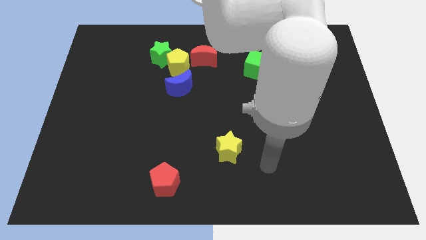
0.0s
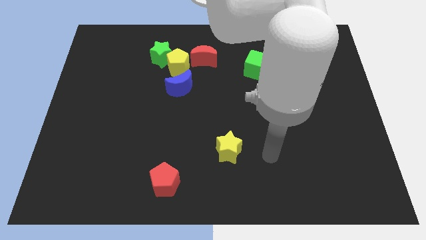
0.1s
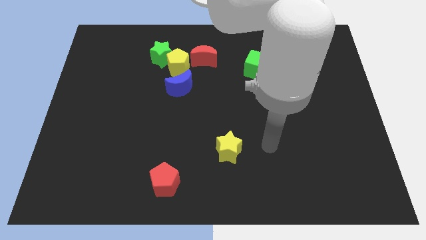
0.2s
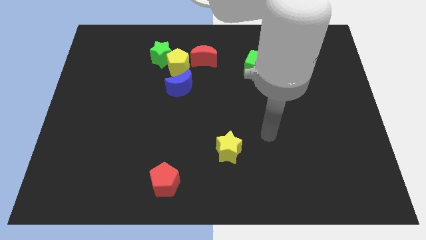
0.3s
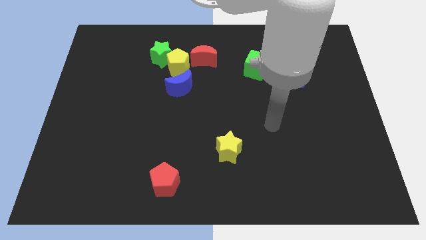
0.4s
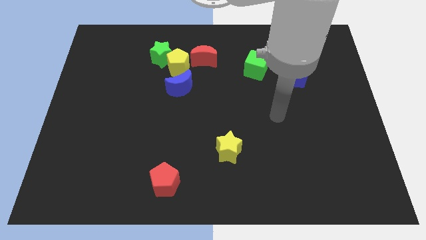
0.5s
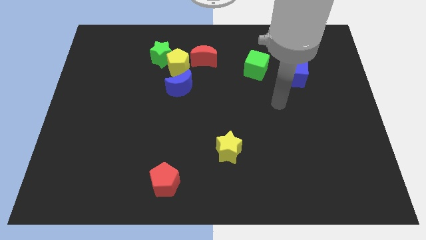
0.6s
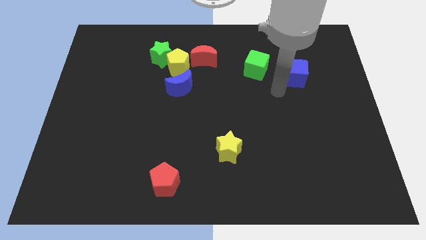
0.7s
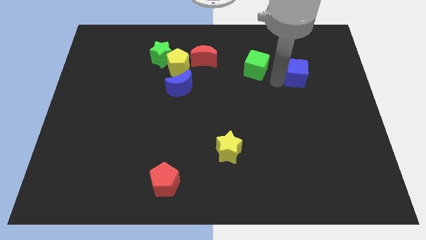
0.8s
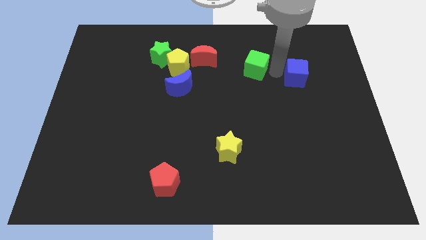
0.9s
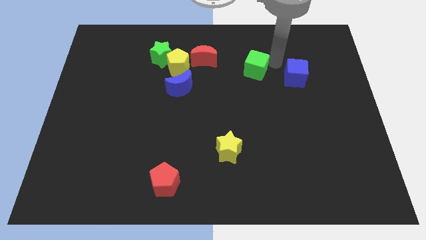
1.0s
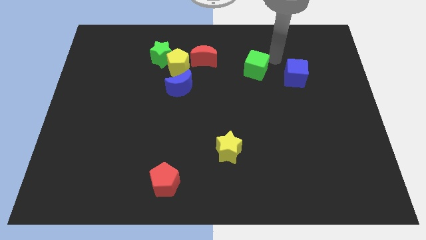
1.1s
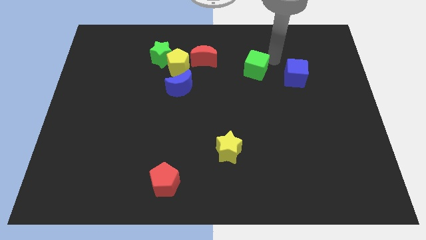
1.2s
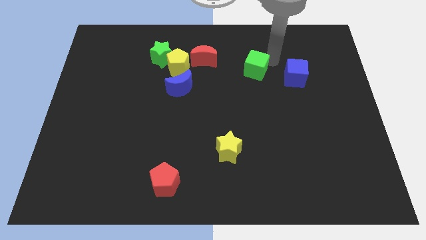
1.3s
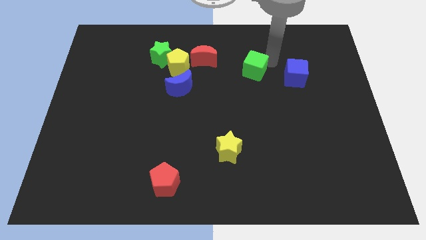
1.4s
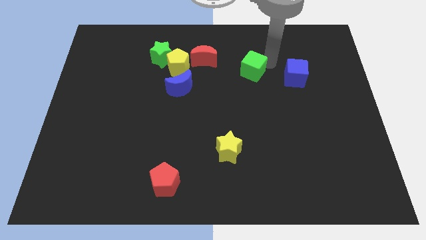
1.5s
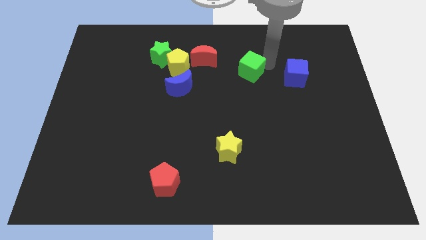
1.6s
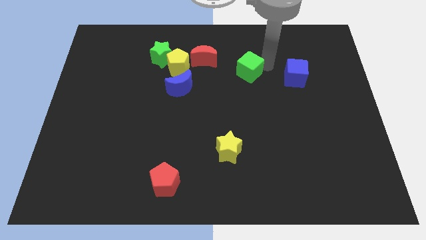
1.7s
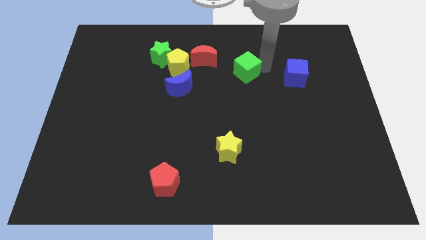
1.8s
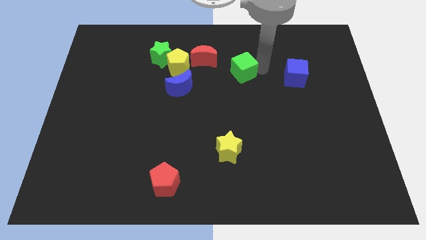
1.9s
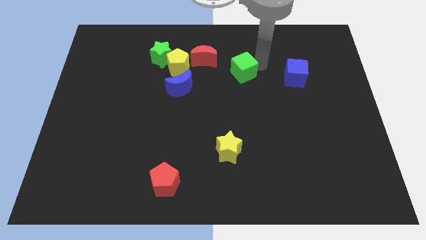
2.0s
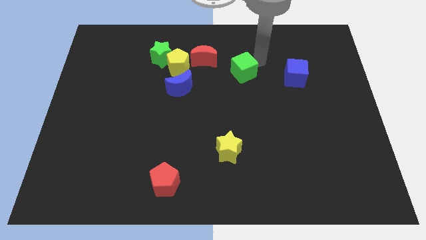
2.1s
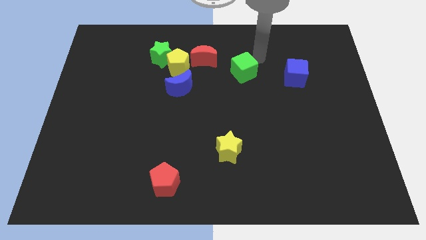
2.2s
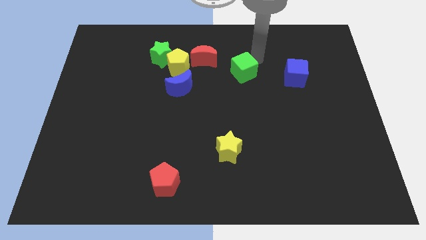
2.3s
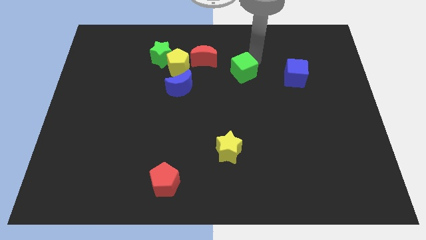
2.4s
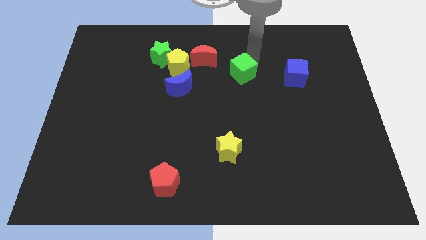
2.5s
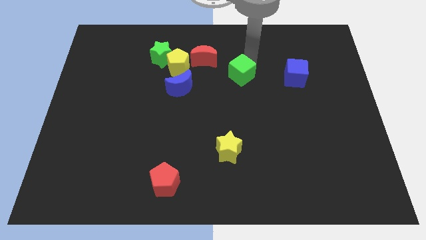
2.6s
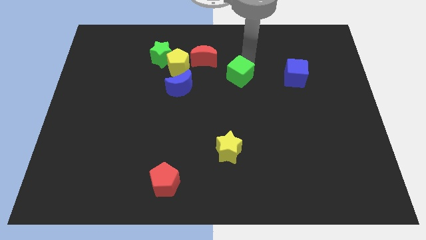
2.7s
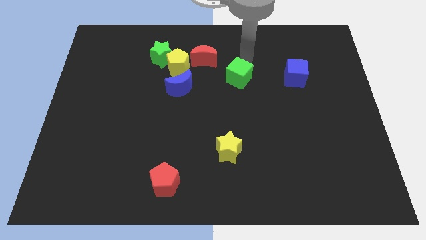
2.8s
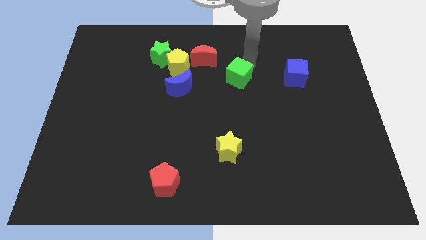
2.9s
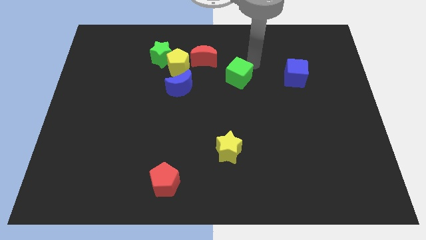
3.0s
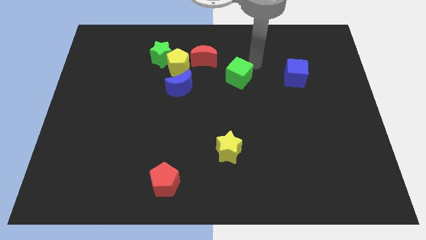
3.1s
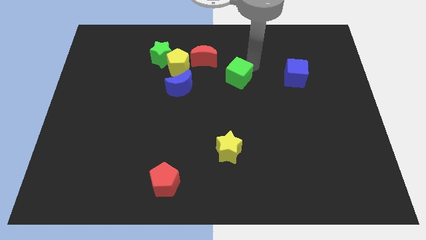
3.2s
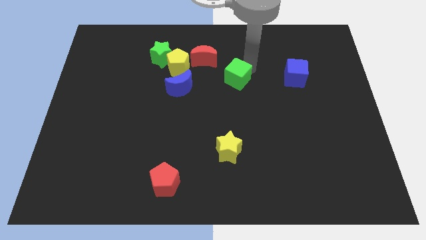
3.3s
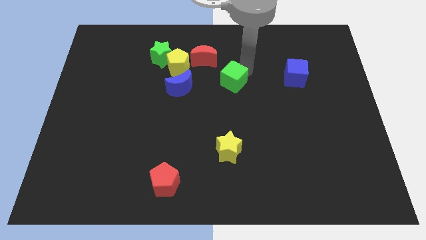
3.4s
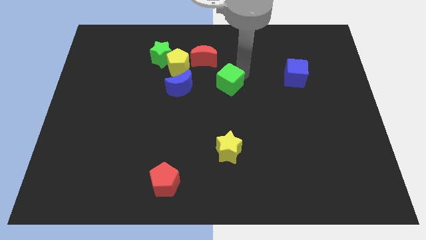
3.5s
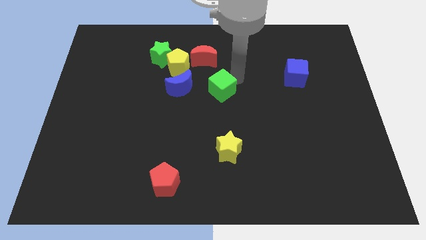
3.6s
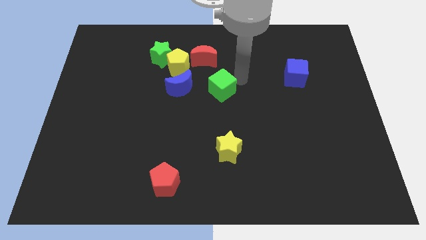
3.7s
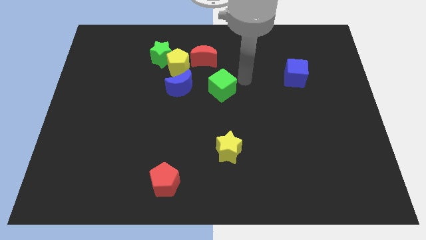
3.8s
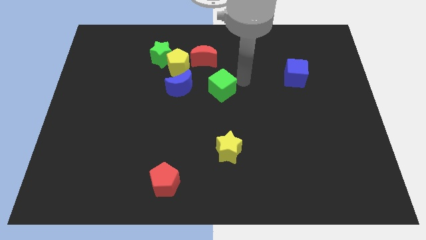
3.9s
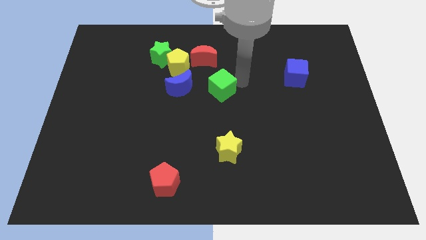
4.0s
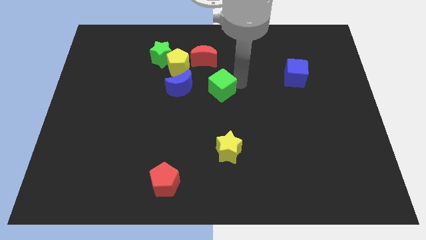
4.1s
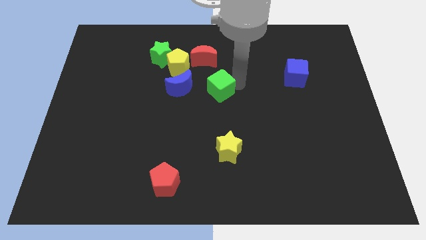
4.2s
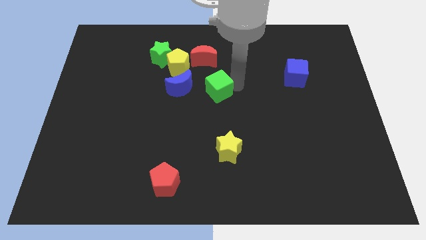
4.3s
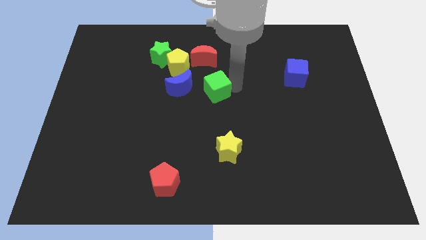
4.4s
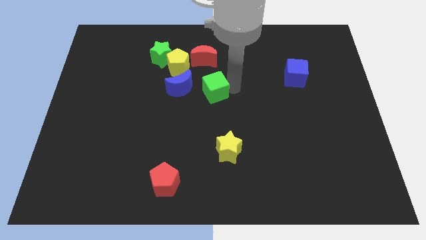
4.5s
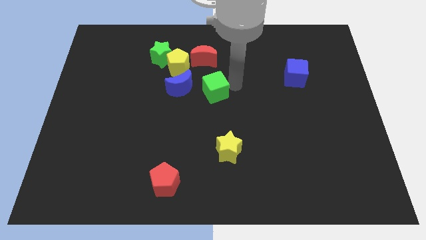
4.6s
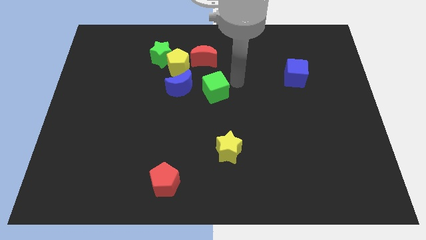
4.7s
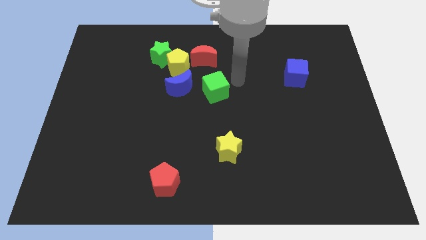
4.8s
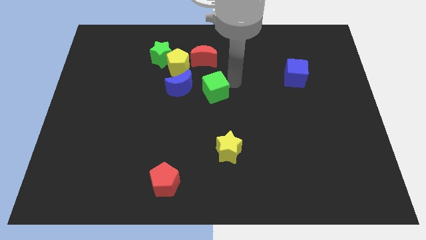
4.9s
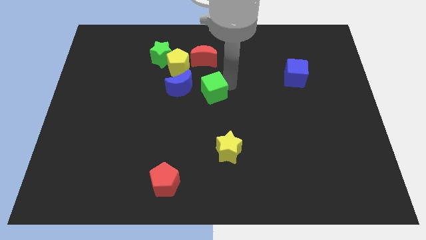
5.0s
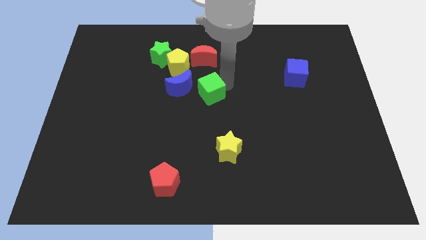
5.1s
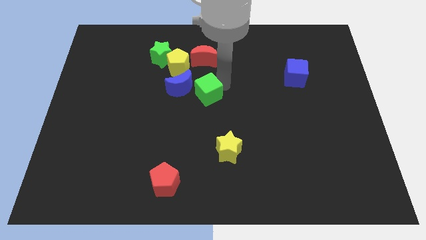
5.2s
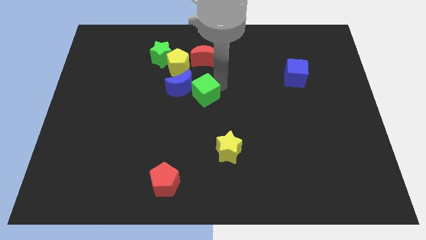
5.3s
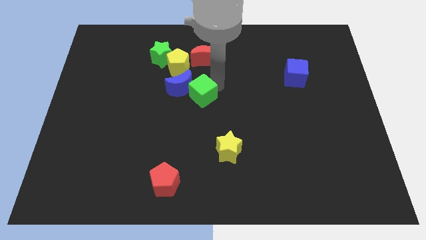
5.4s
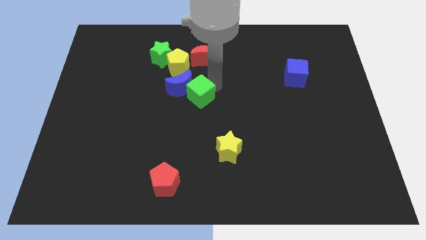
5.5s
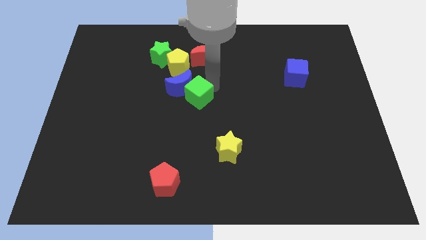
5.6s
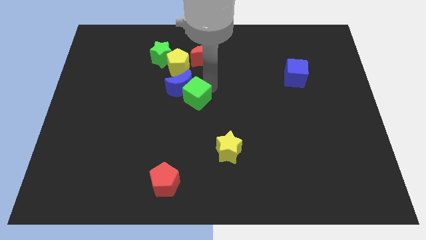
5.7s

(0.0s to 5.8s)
put the green cube to the bottom side of the yellow pentagon

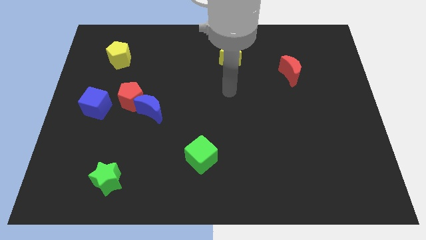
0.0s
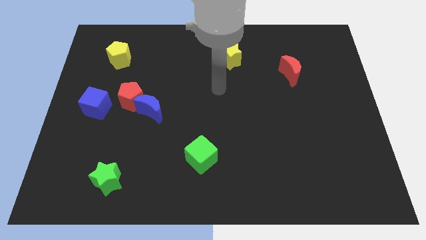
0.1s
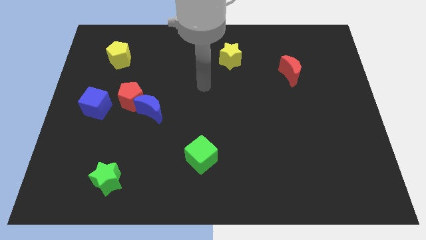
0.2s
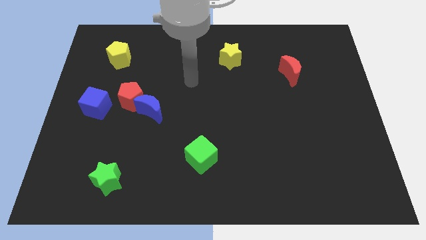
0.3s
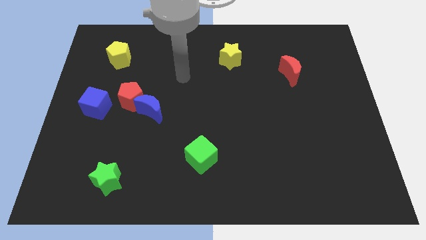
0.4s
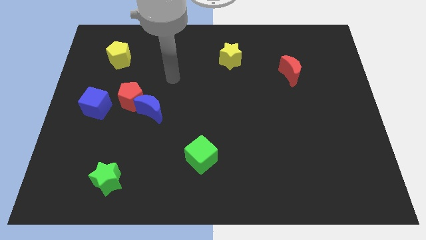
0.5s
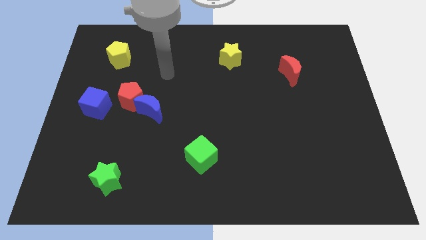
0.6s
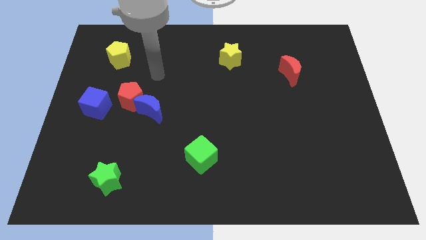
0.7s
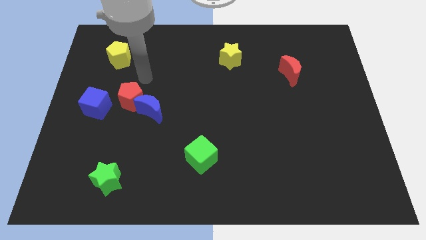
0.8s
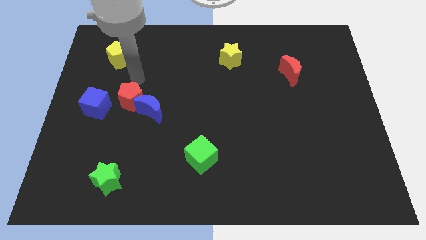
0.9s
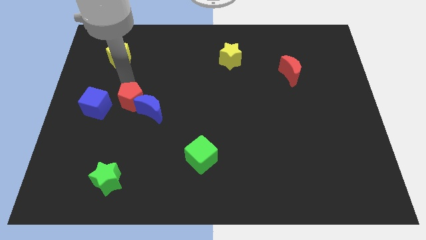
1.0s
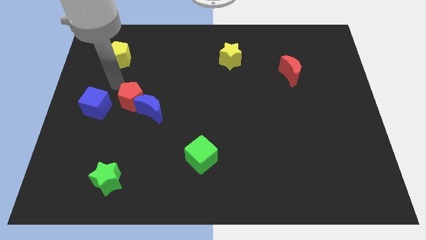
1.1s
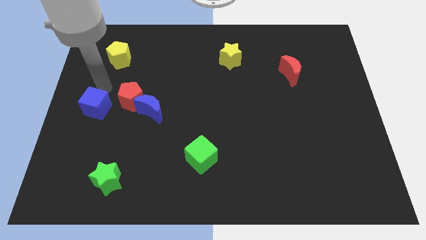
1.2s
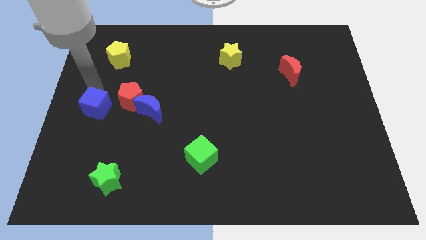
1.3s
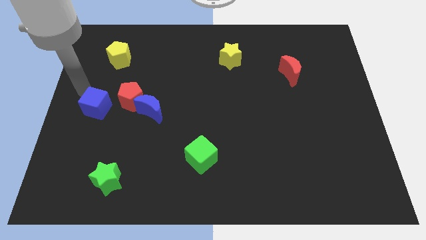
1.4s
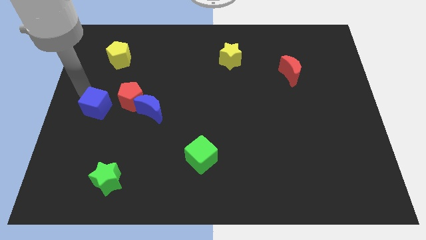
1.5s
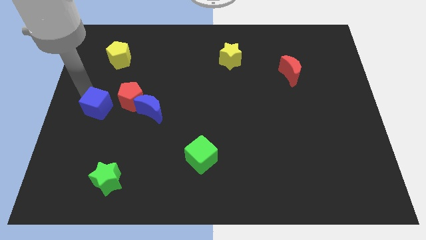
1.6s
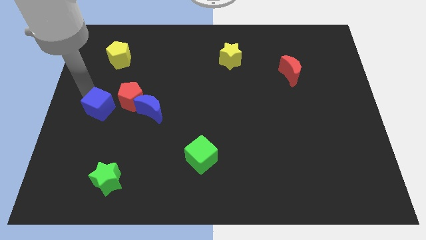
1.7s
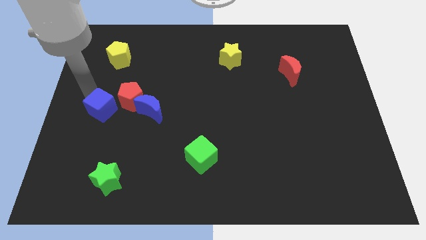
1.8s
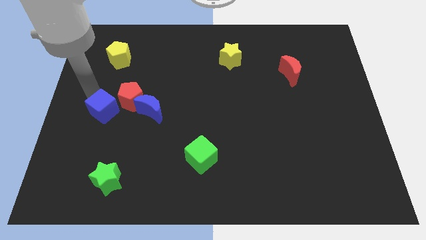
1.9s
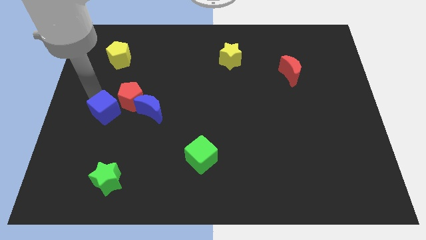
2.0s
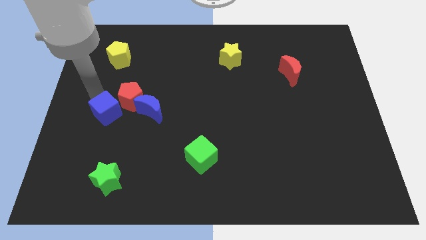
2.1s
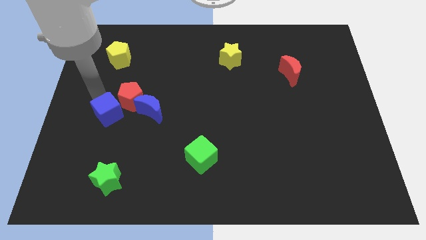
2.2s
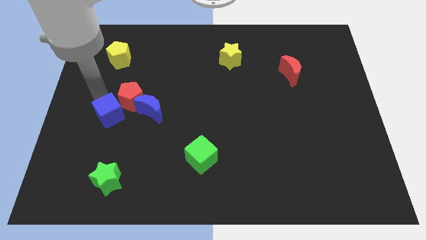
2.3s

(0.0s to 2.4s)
put the blue cube to the bottom of the red pentagon

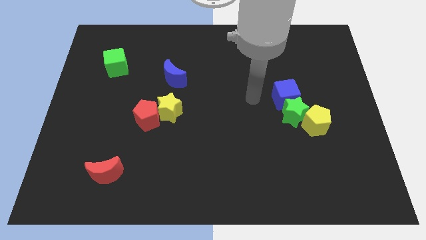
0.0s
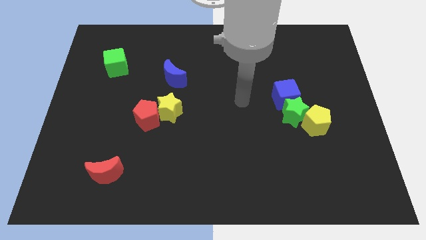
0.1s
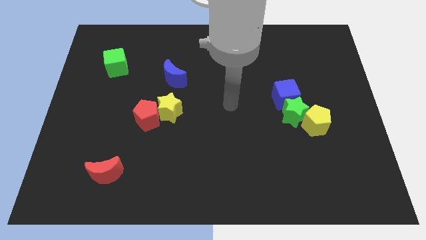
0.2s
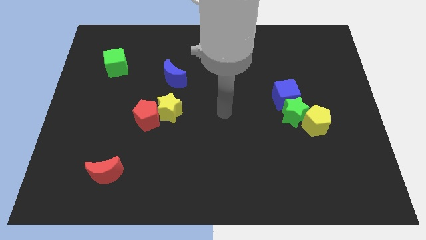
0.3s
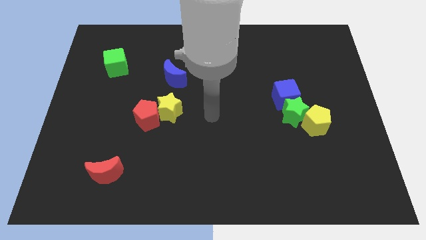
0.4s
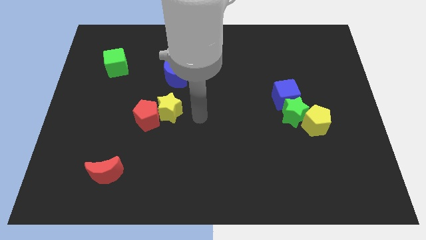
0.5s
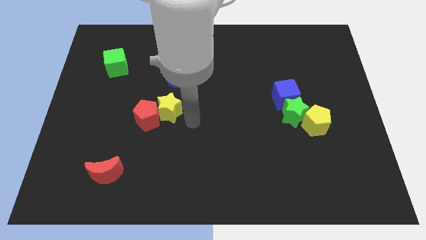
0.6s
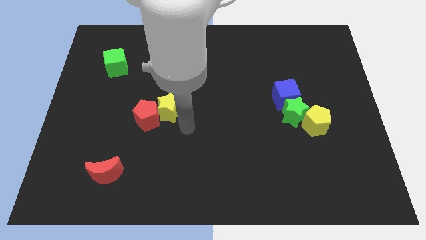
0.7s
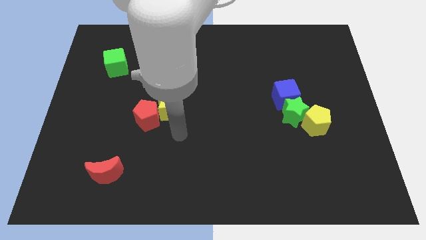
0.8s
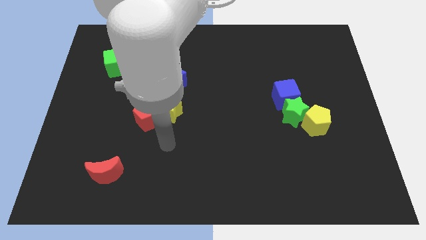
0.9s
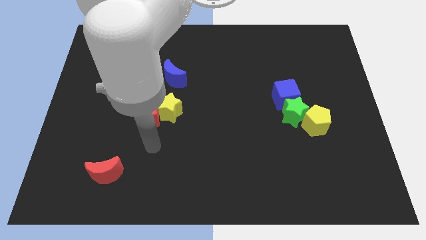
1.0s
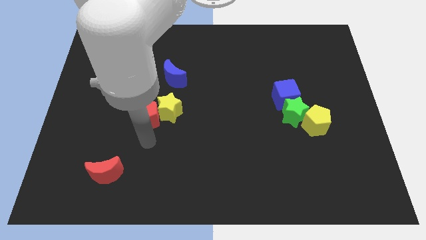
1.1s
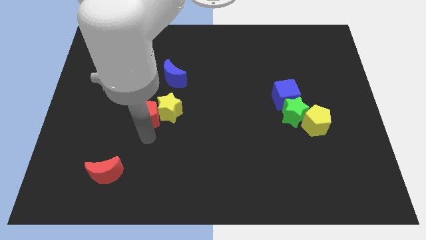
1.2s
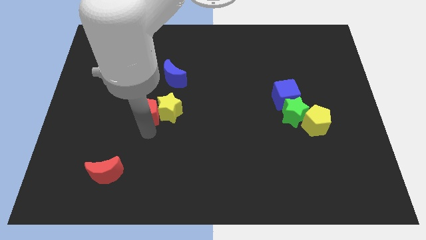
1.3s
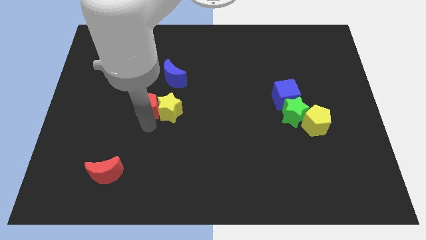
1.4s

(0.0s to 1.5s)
move the red pentagon to the bottom left of the blue moon
